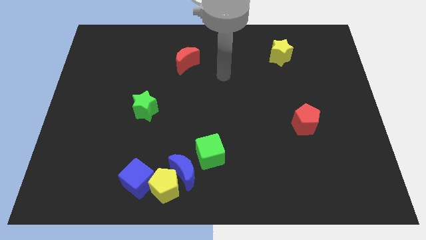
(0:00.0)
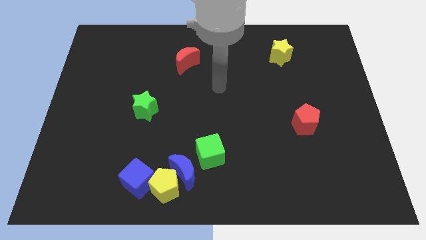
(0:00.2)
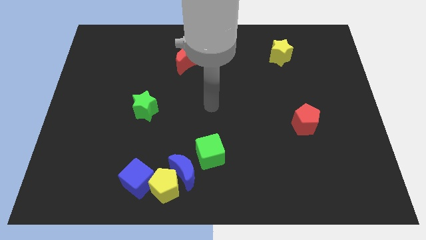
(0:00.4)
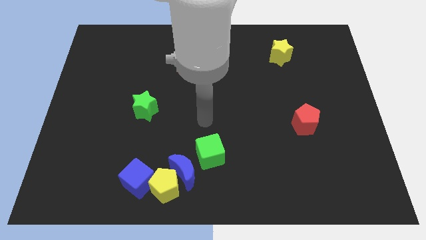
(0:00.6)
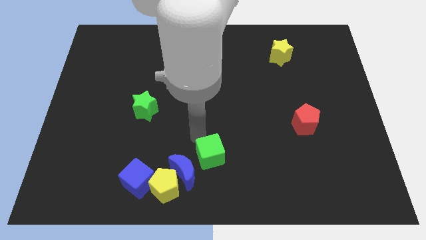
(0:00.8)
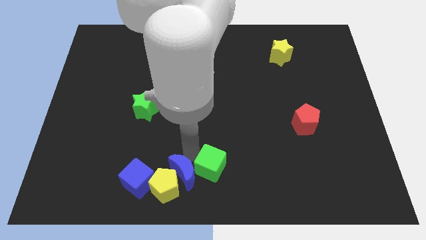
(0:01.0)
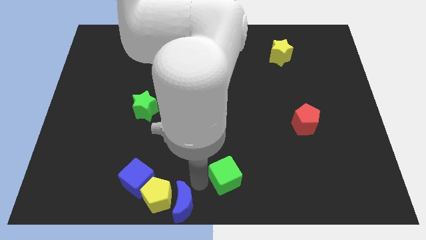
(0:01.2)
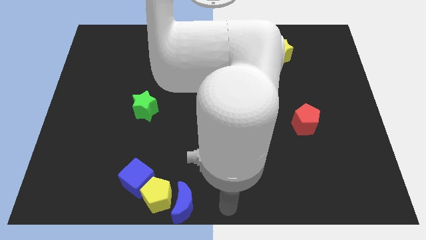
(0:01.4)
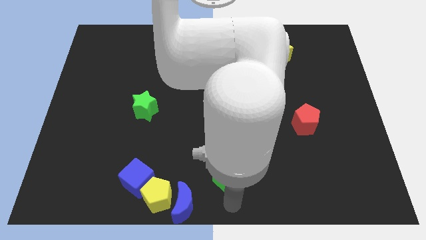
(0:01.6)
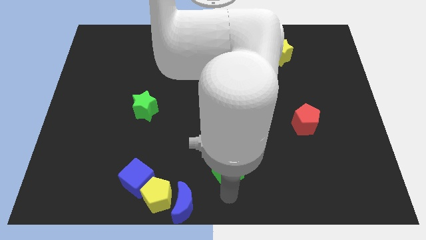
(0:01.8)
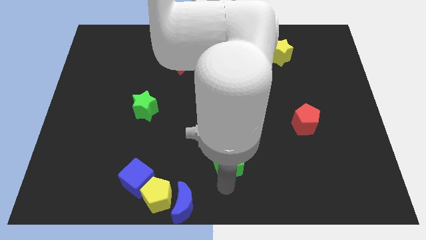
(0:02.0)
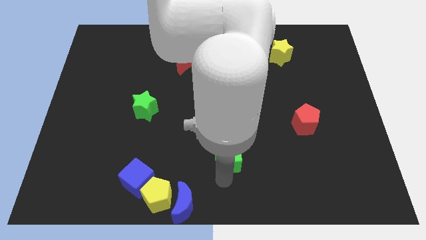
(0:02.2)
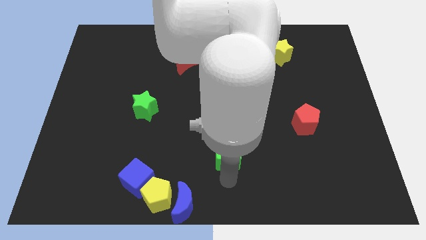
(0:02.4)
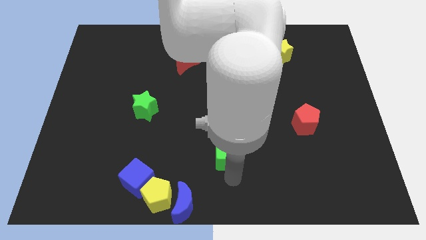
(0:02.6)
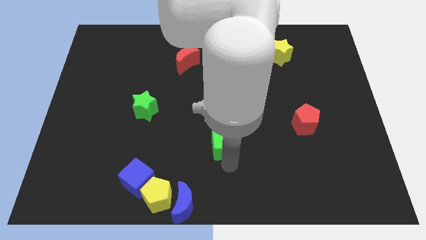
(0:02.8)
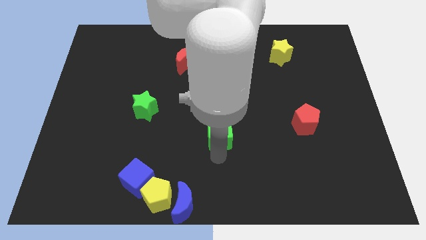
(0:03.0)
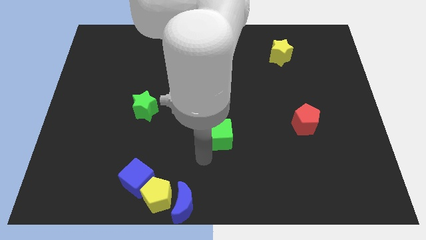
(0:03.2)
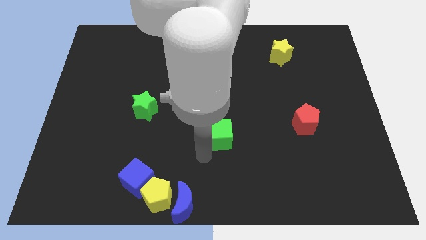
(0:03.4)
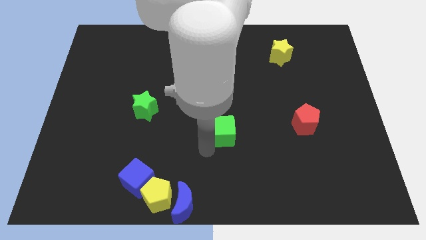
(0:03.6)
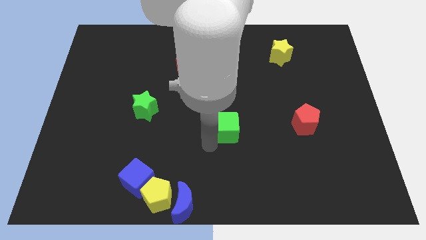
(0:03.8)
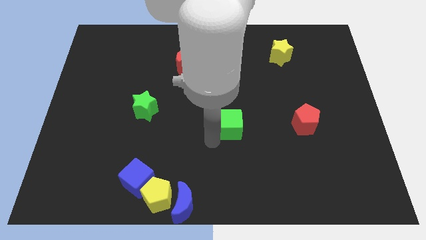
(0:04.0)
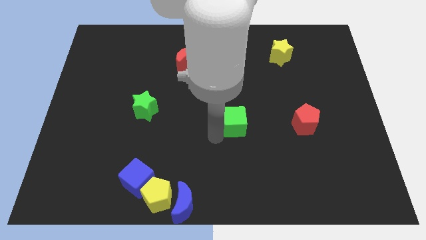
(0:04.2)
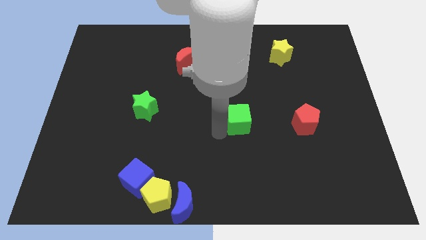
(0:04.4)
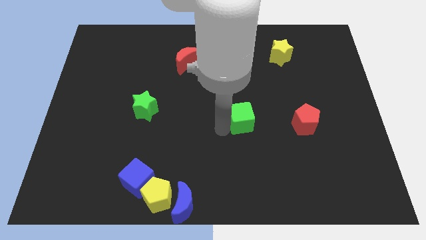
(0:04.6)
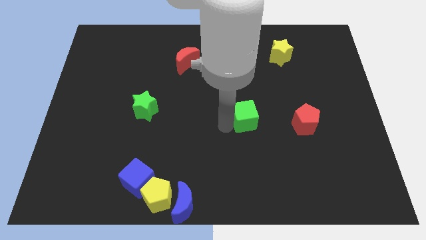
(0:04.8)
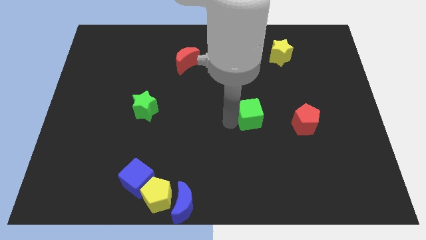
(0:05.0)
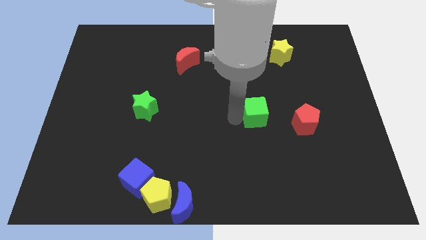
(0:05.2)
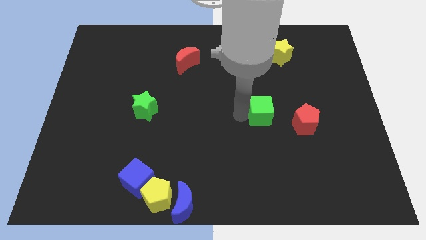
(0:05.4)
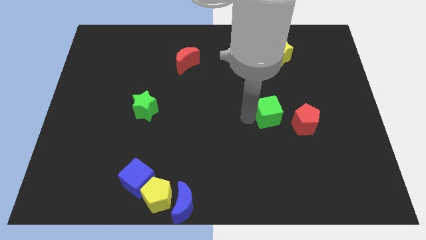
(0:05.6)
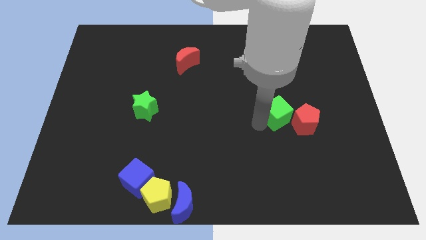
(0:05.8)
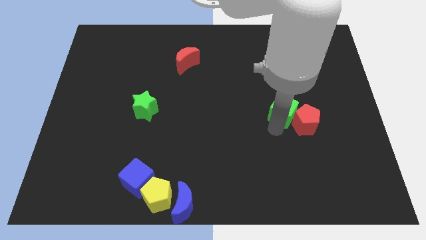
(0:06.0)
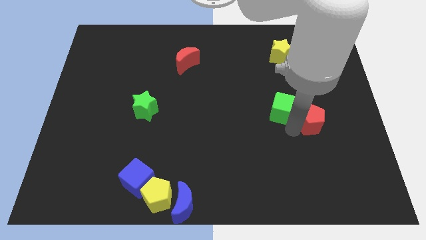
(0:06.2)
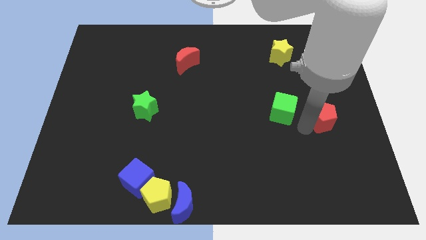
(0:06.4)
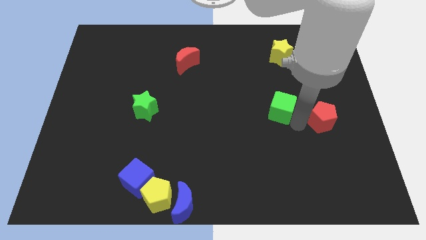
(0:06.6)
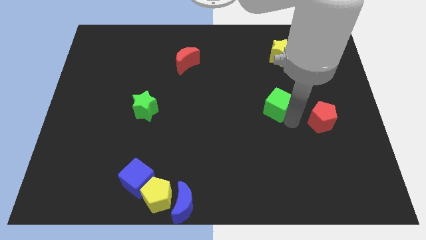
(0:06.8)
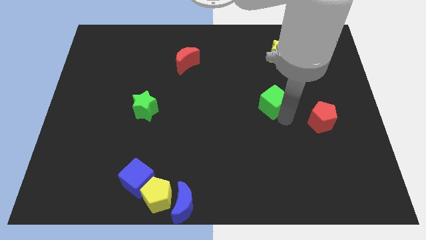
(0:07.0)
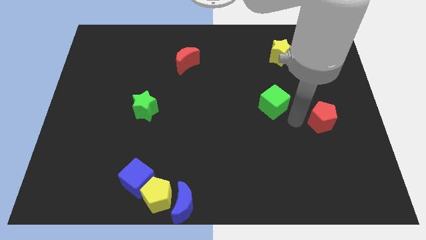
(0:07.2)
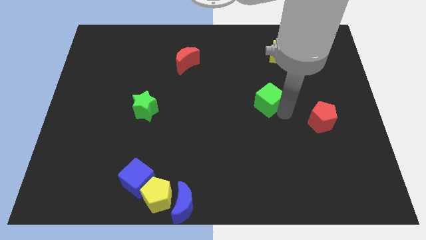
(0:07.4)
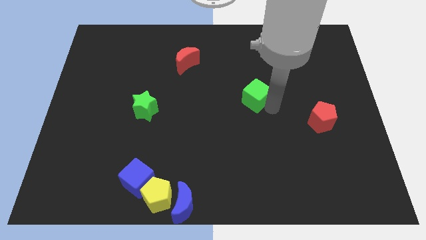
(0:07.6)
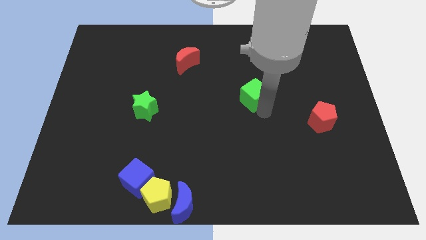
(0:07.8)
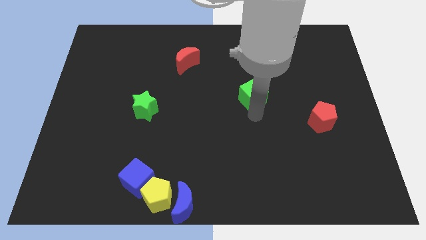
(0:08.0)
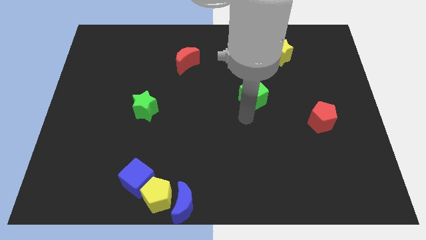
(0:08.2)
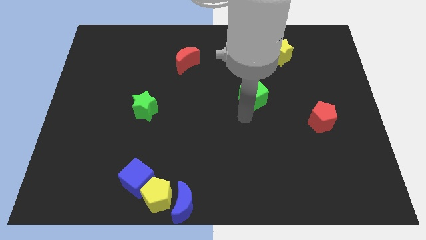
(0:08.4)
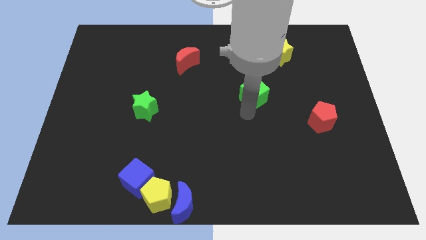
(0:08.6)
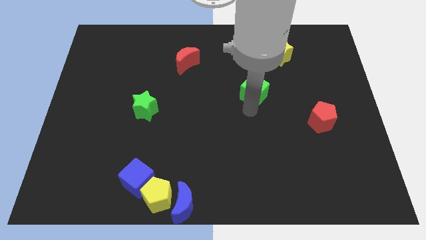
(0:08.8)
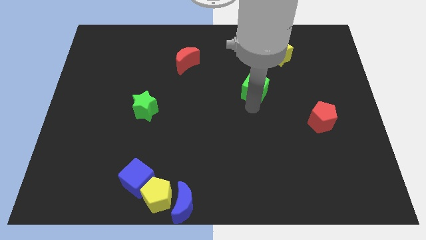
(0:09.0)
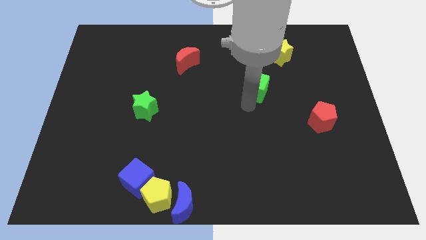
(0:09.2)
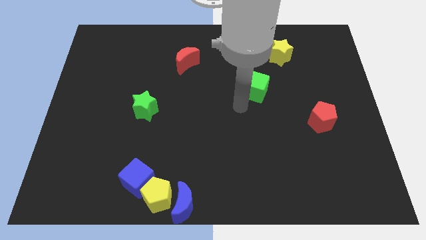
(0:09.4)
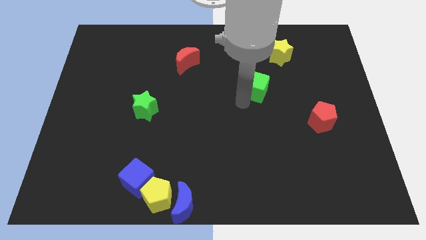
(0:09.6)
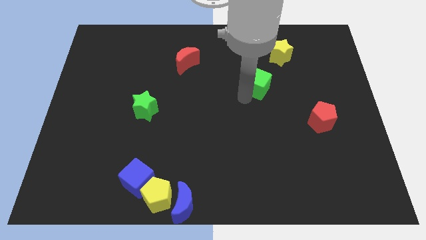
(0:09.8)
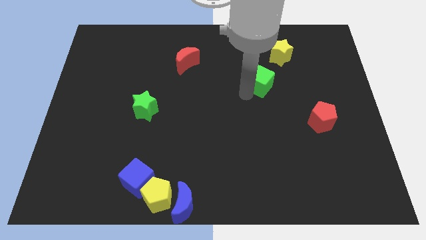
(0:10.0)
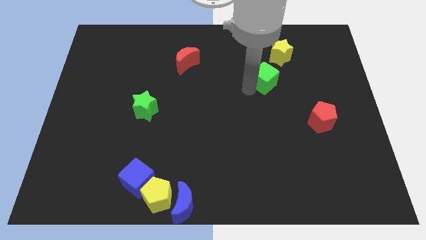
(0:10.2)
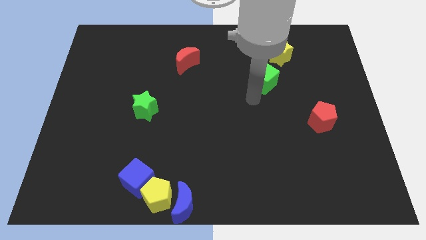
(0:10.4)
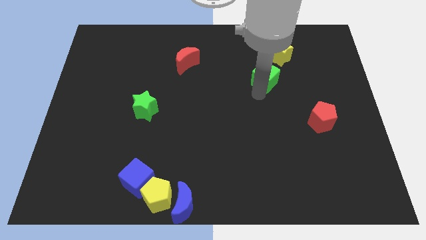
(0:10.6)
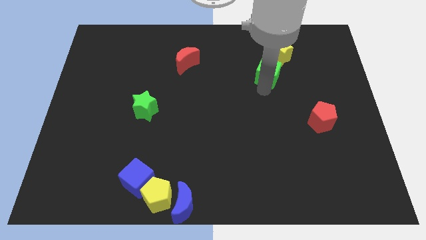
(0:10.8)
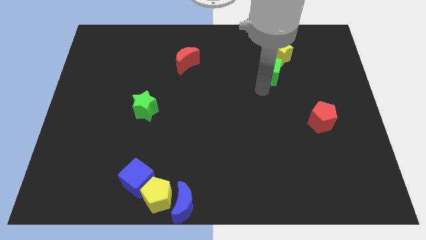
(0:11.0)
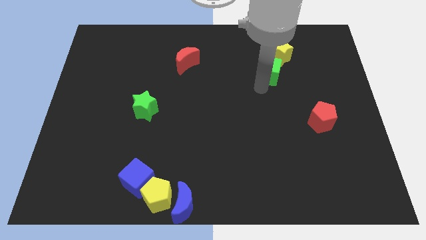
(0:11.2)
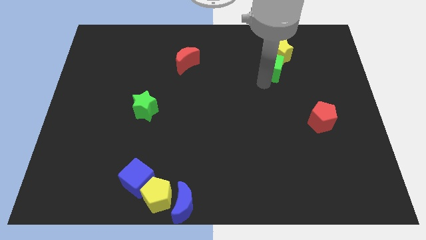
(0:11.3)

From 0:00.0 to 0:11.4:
move the green cube towards the yellow star

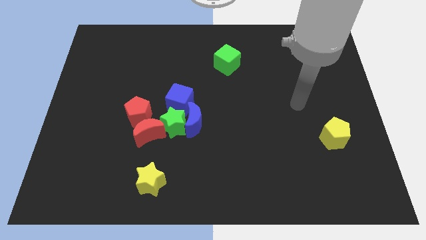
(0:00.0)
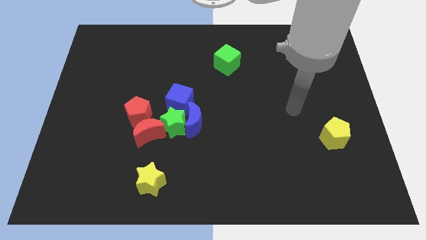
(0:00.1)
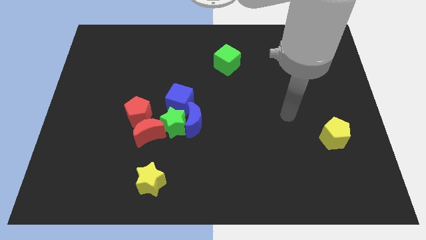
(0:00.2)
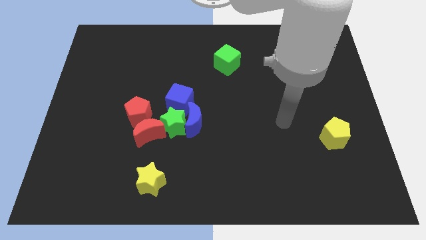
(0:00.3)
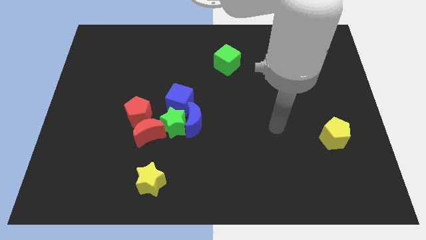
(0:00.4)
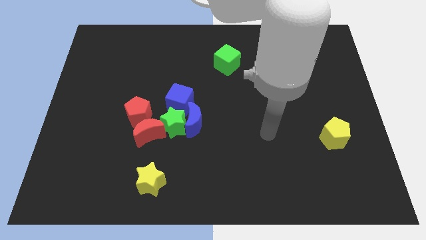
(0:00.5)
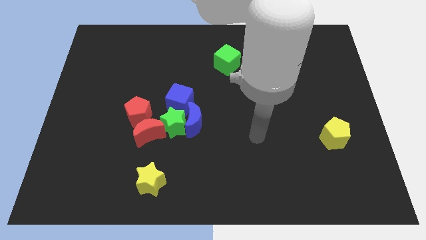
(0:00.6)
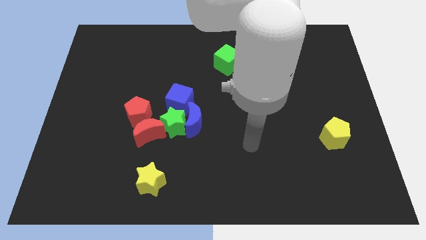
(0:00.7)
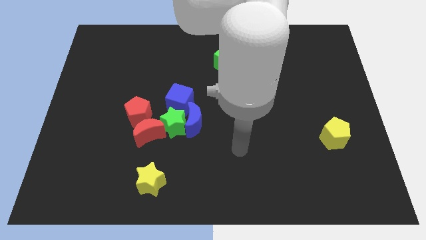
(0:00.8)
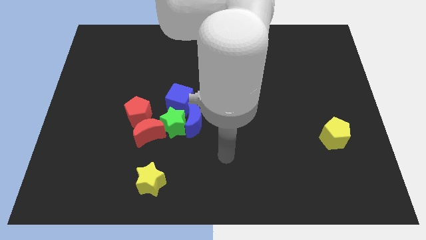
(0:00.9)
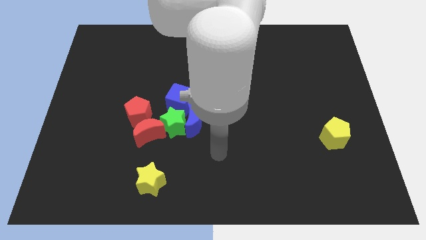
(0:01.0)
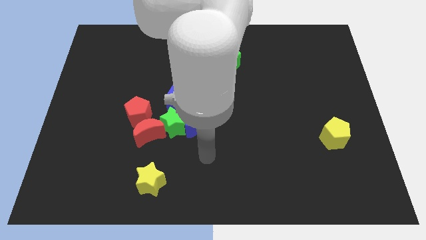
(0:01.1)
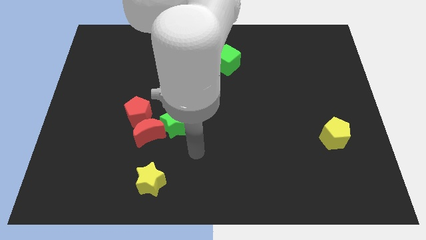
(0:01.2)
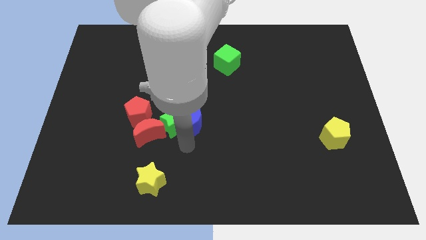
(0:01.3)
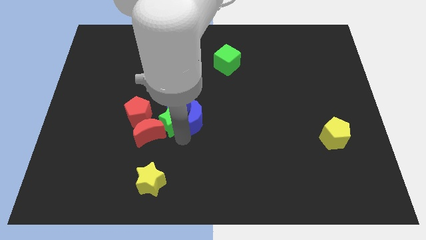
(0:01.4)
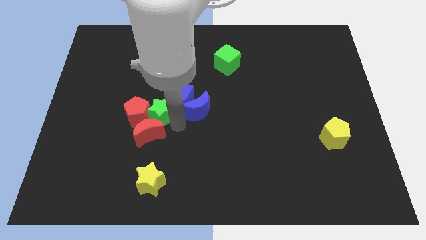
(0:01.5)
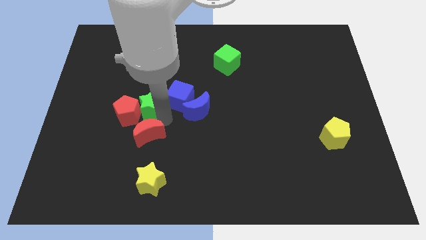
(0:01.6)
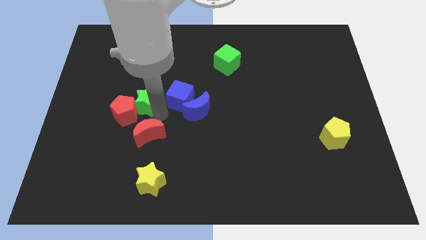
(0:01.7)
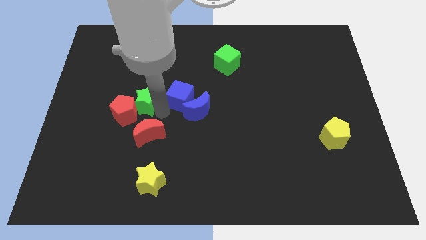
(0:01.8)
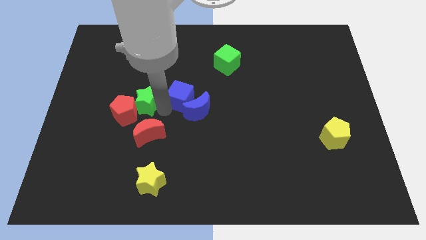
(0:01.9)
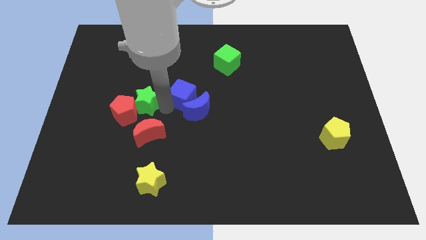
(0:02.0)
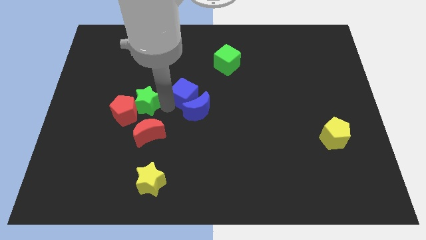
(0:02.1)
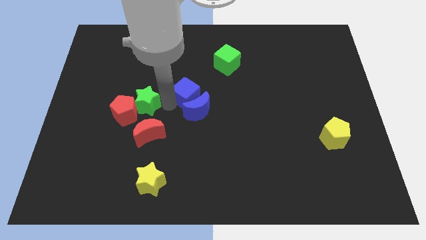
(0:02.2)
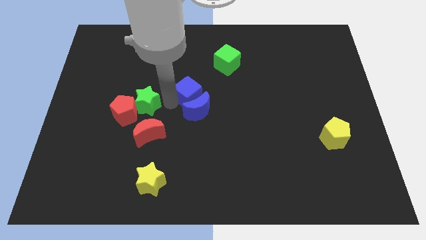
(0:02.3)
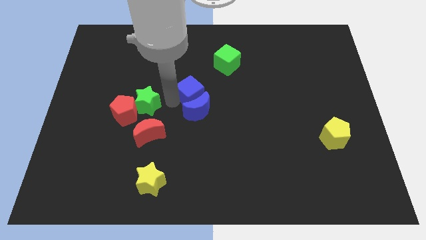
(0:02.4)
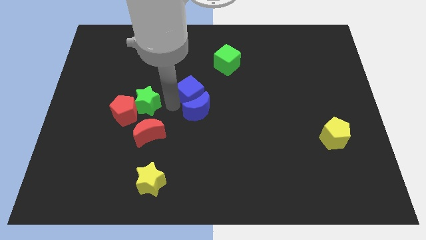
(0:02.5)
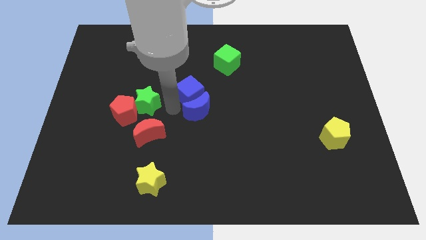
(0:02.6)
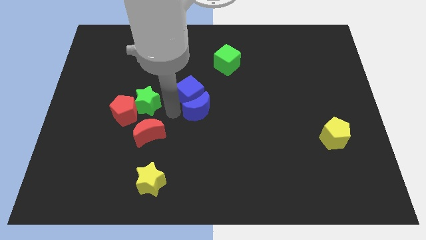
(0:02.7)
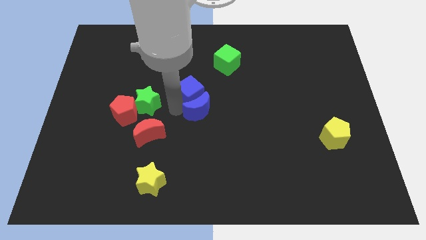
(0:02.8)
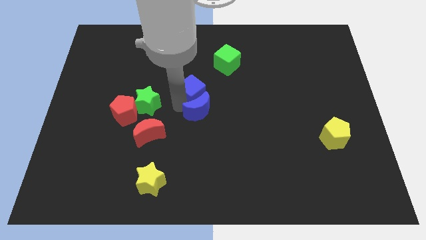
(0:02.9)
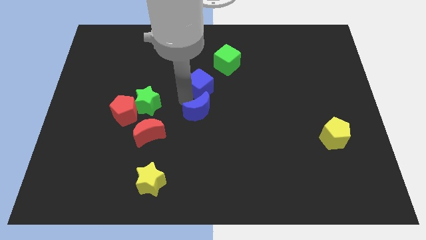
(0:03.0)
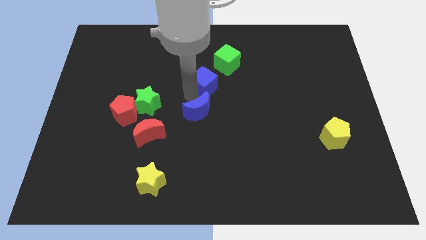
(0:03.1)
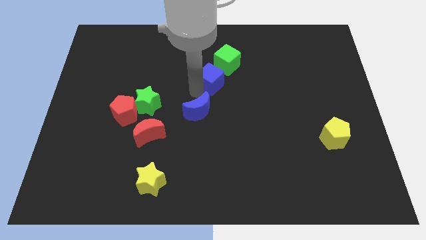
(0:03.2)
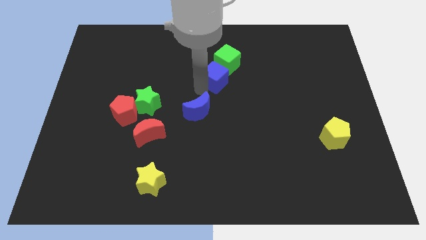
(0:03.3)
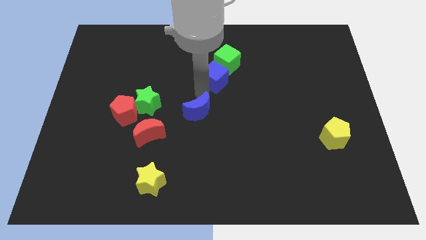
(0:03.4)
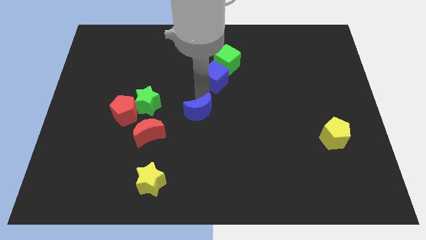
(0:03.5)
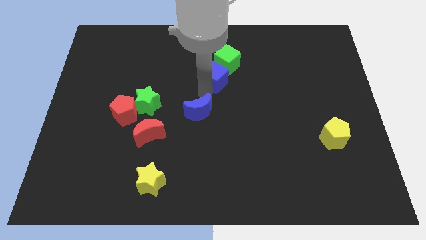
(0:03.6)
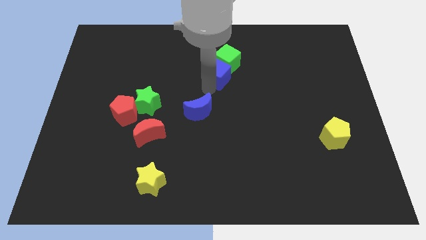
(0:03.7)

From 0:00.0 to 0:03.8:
move the blue cube towards the green cube
